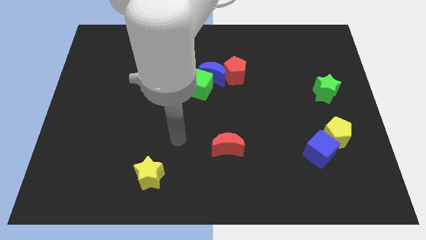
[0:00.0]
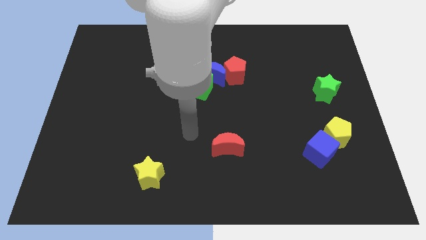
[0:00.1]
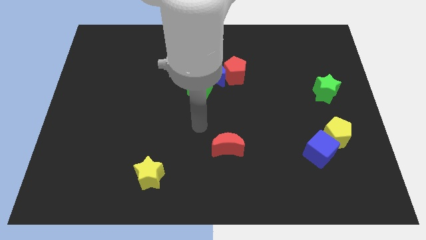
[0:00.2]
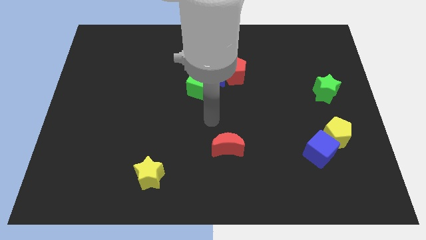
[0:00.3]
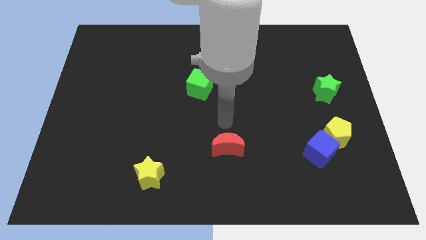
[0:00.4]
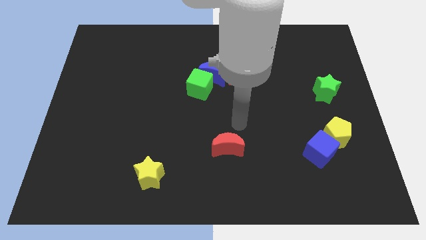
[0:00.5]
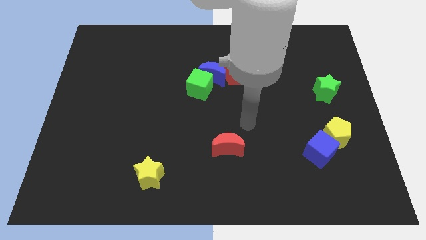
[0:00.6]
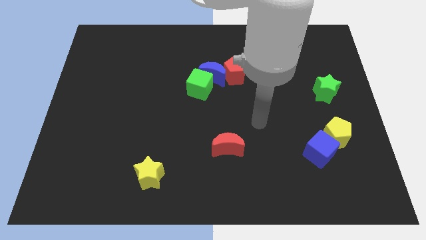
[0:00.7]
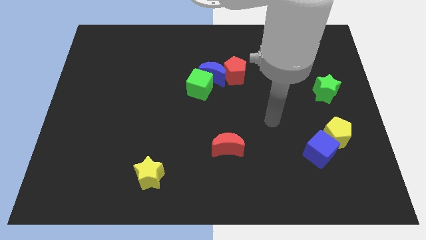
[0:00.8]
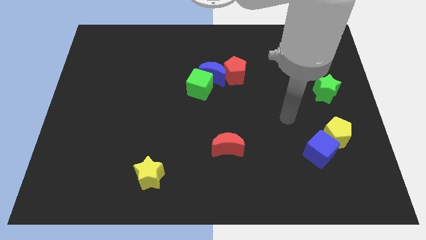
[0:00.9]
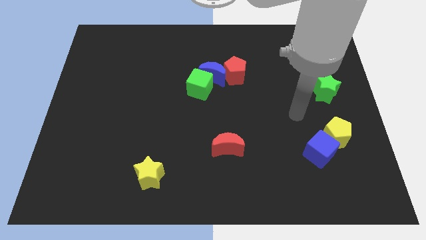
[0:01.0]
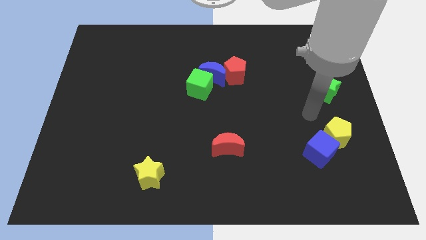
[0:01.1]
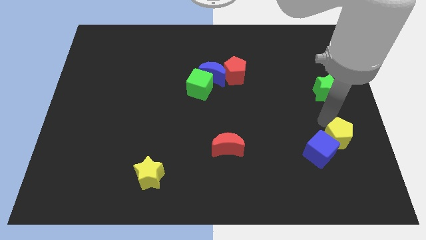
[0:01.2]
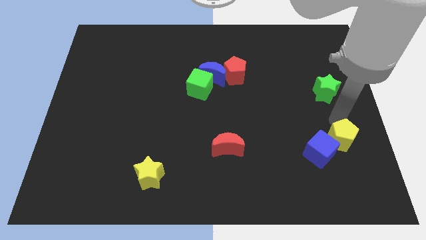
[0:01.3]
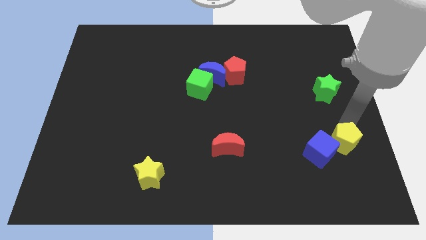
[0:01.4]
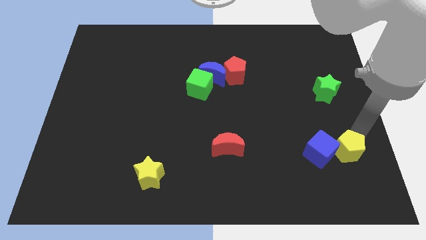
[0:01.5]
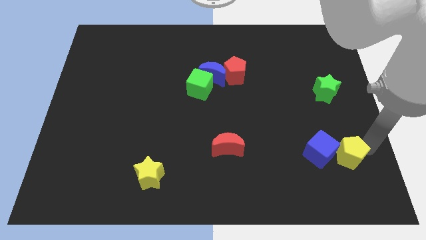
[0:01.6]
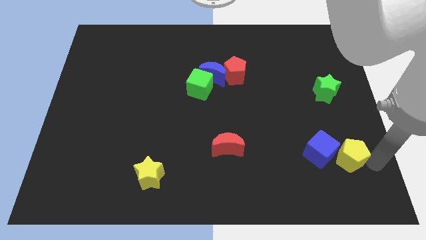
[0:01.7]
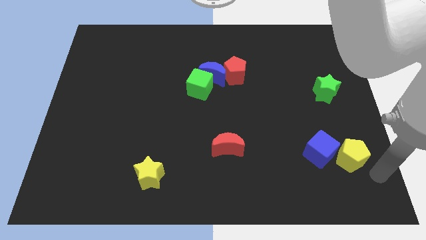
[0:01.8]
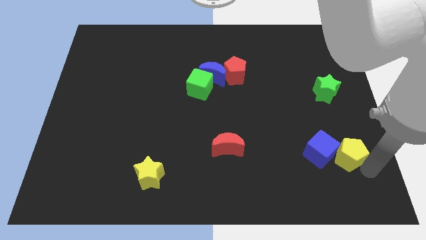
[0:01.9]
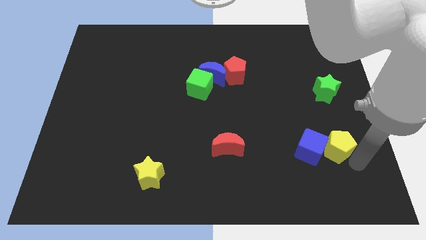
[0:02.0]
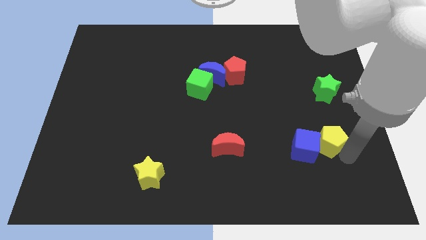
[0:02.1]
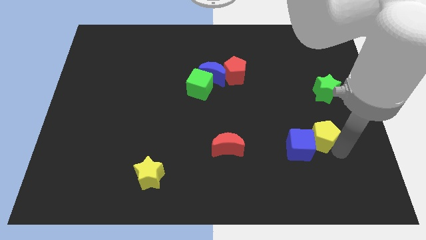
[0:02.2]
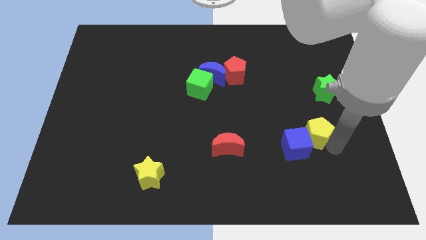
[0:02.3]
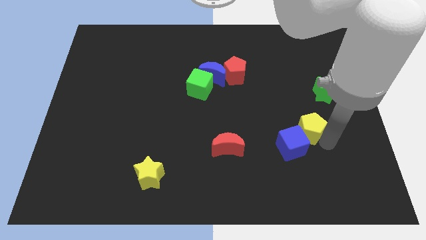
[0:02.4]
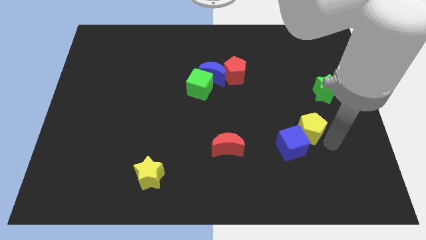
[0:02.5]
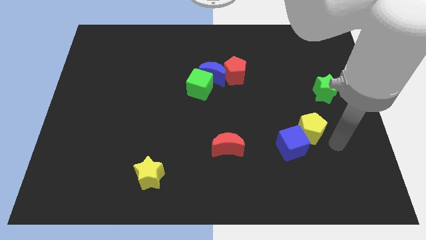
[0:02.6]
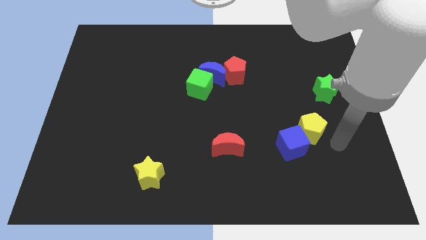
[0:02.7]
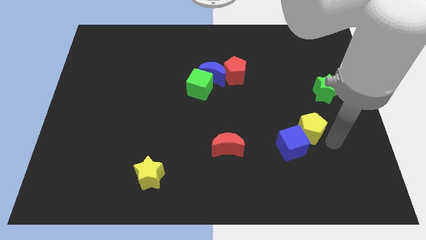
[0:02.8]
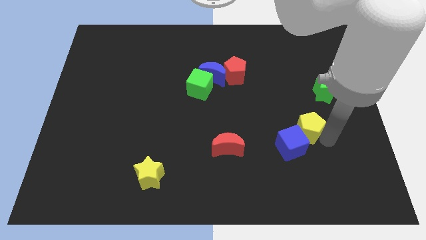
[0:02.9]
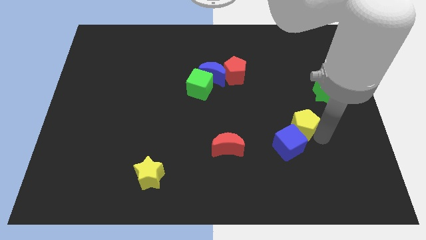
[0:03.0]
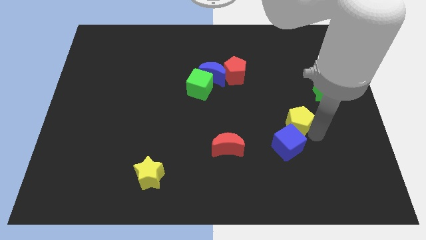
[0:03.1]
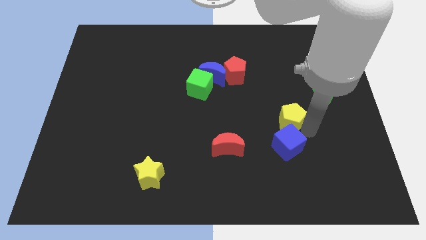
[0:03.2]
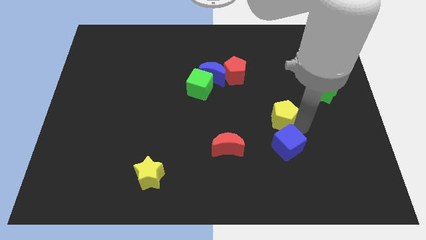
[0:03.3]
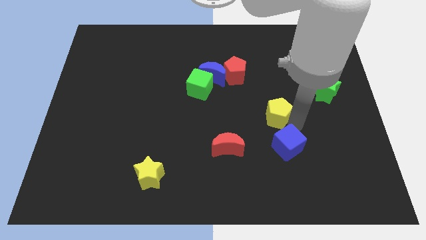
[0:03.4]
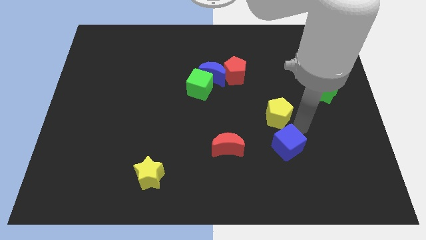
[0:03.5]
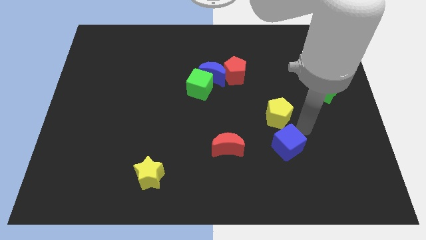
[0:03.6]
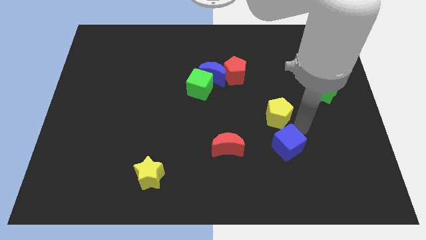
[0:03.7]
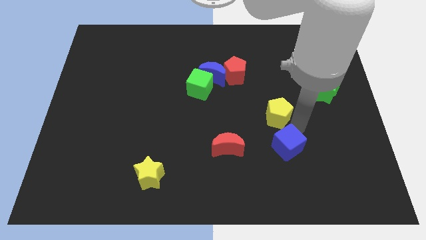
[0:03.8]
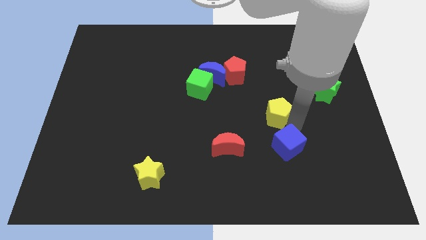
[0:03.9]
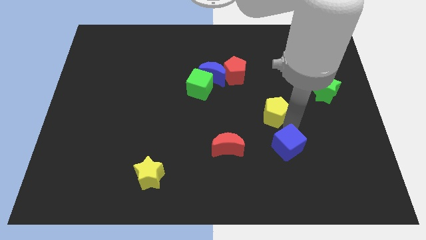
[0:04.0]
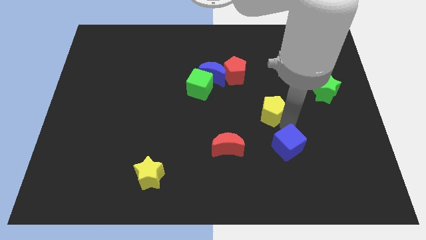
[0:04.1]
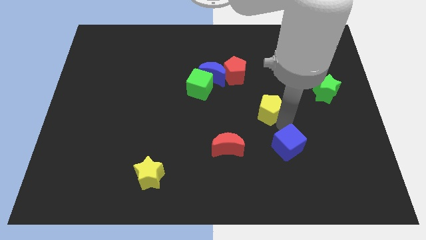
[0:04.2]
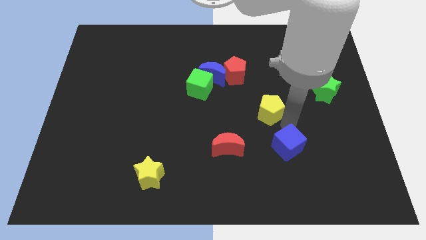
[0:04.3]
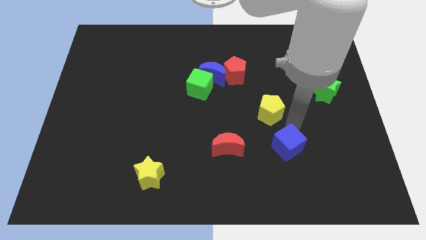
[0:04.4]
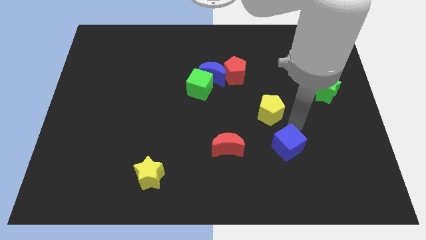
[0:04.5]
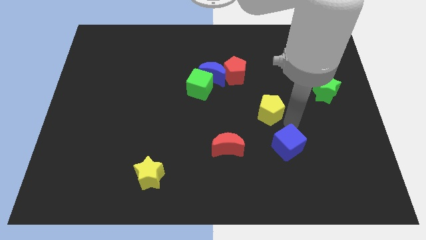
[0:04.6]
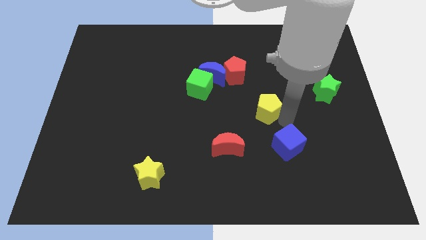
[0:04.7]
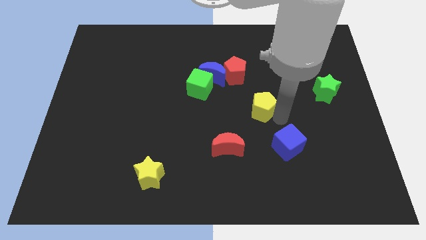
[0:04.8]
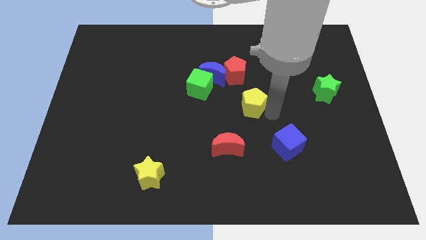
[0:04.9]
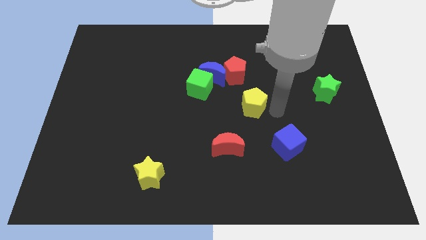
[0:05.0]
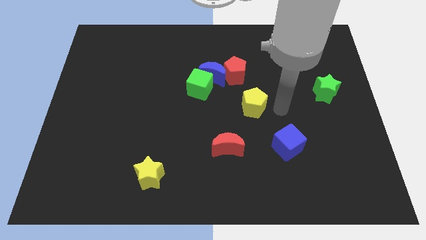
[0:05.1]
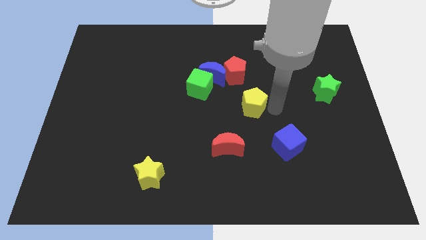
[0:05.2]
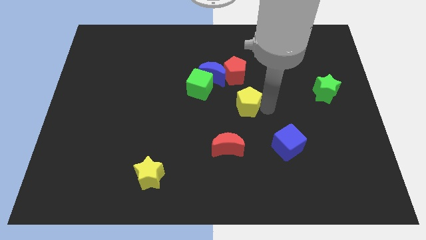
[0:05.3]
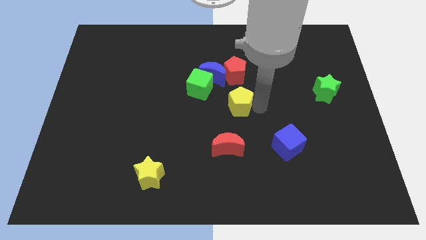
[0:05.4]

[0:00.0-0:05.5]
slide the yellow pentagon diagonally down and to the right of the green cube

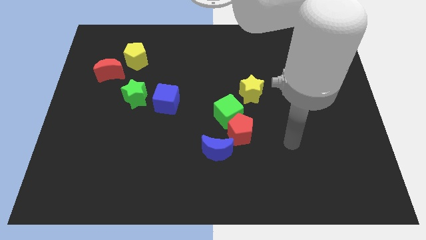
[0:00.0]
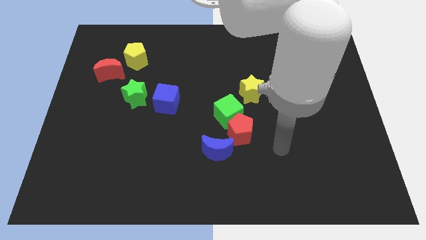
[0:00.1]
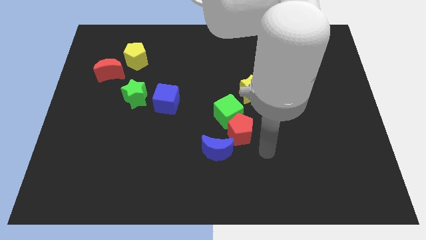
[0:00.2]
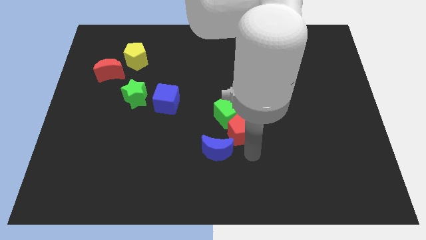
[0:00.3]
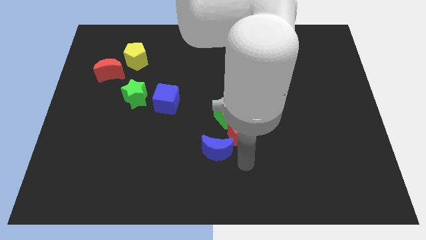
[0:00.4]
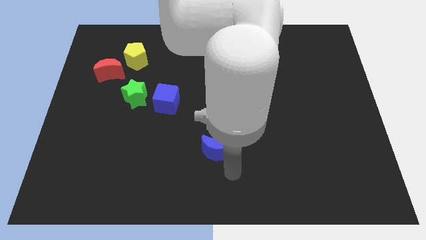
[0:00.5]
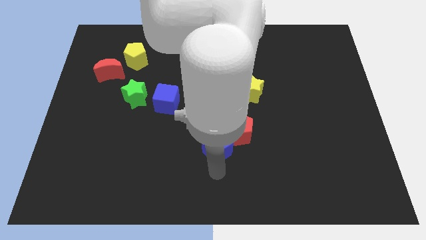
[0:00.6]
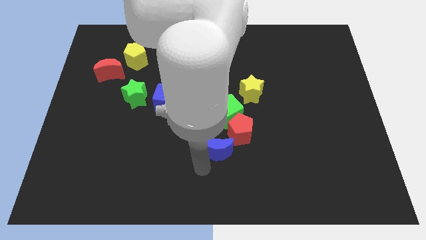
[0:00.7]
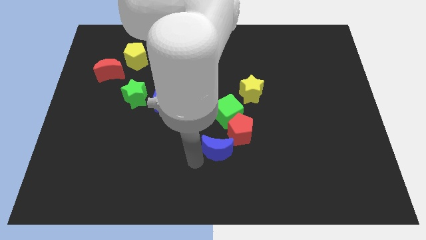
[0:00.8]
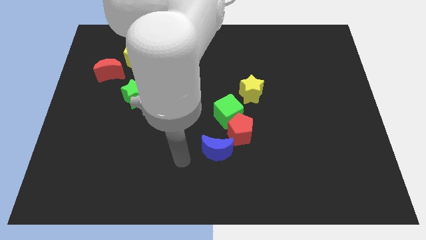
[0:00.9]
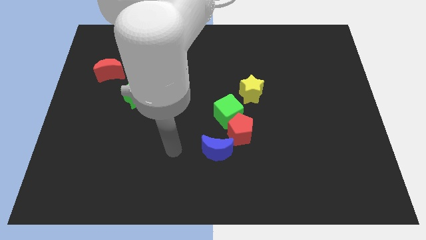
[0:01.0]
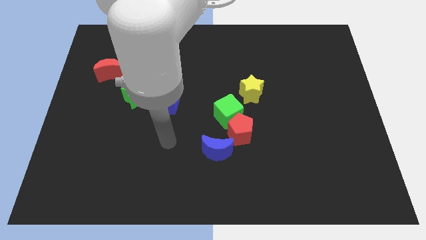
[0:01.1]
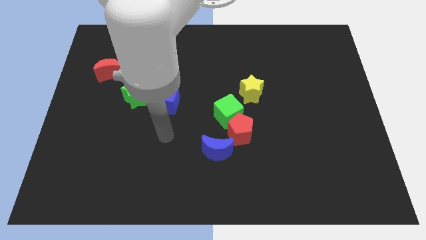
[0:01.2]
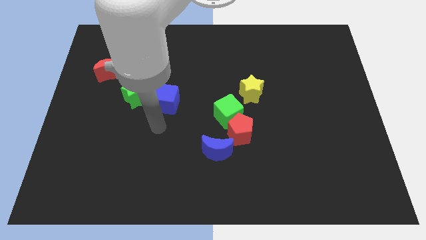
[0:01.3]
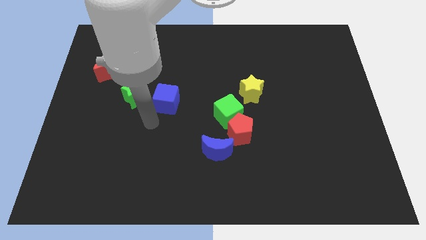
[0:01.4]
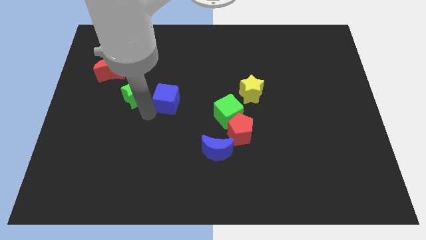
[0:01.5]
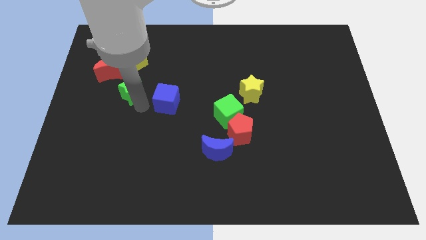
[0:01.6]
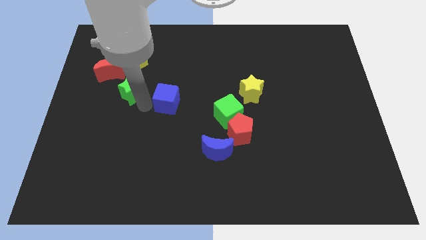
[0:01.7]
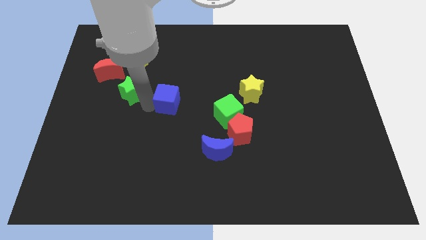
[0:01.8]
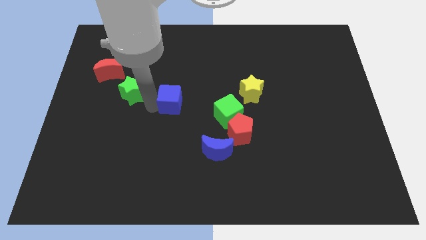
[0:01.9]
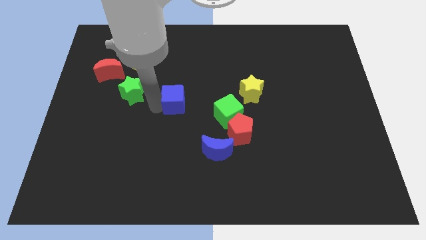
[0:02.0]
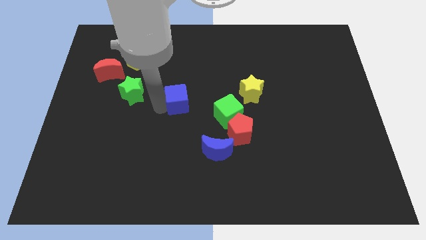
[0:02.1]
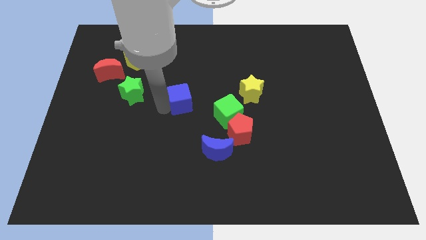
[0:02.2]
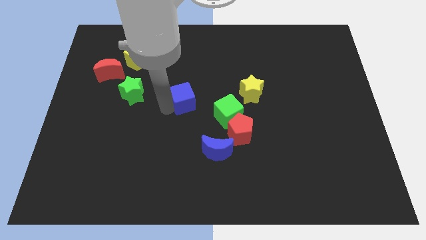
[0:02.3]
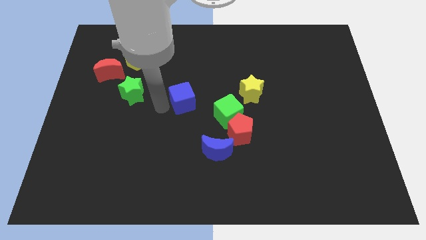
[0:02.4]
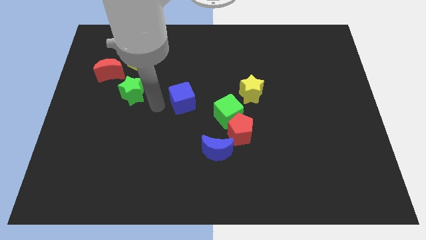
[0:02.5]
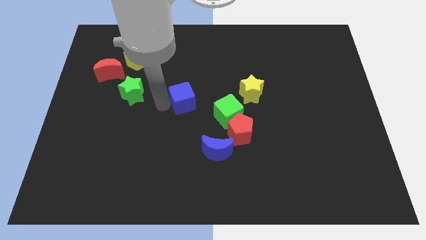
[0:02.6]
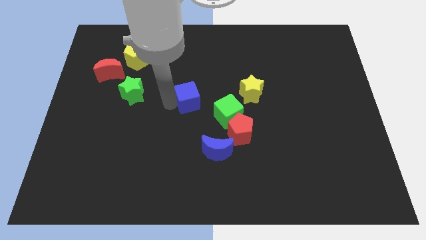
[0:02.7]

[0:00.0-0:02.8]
push the blue cube diagonally up and to the left of the green cube
